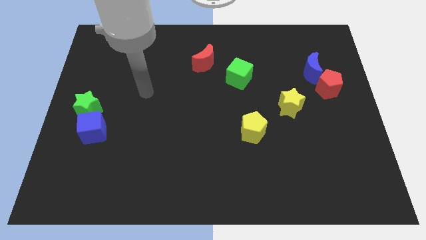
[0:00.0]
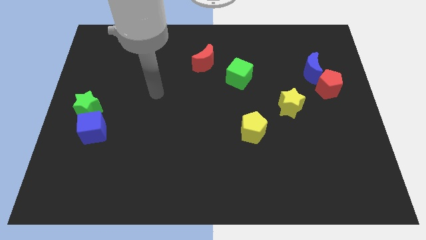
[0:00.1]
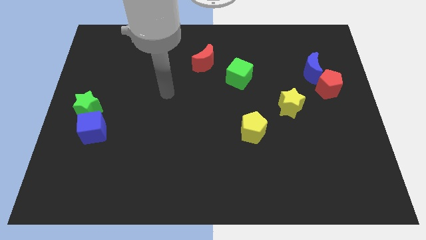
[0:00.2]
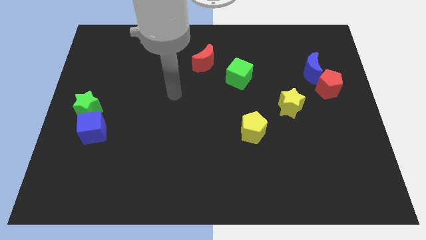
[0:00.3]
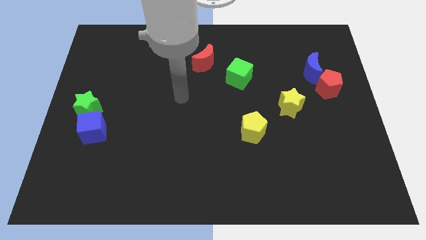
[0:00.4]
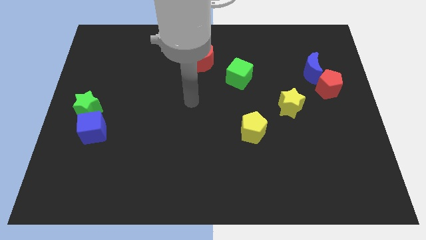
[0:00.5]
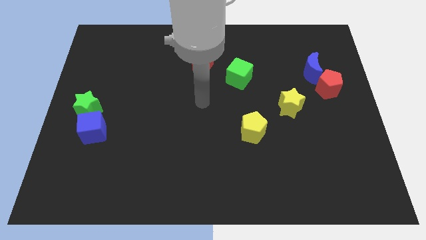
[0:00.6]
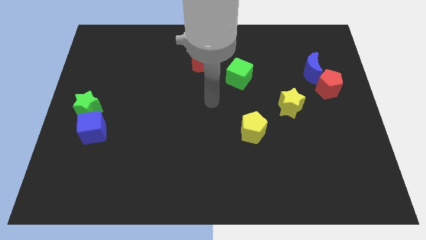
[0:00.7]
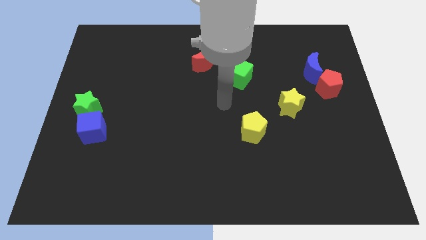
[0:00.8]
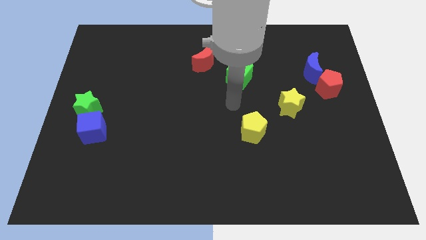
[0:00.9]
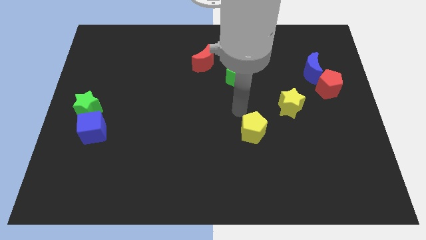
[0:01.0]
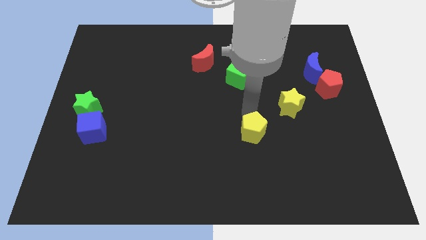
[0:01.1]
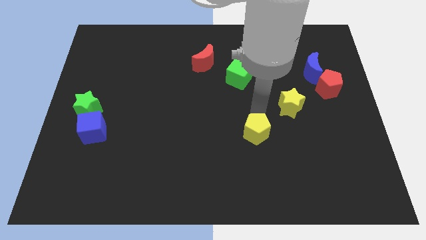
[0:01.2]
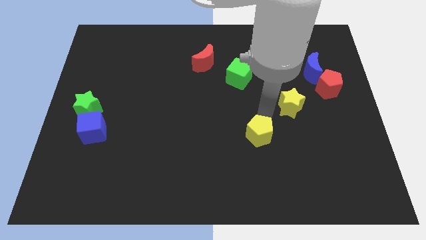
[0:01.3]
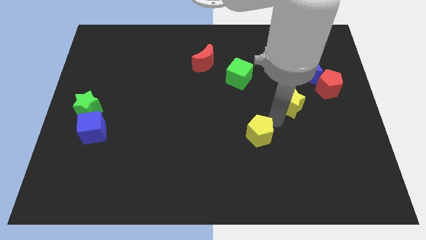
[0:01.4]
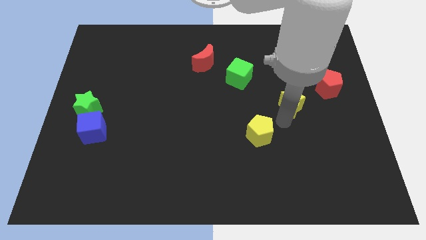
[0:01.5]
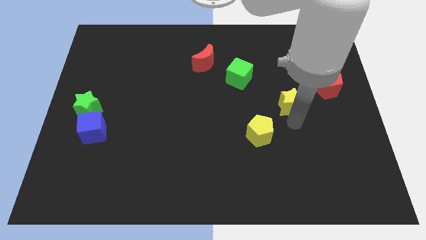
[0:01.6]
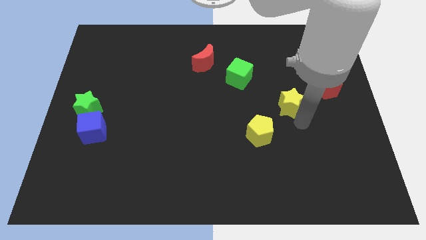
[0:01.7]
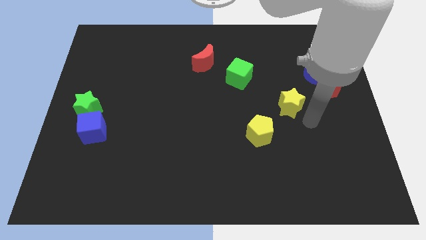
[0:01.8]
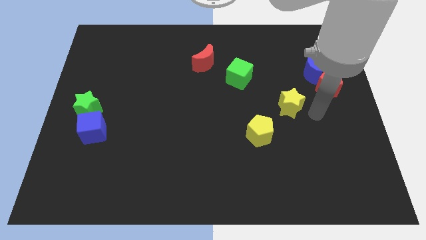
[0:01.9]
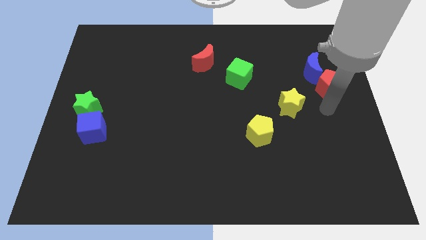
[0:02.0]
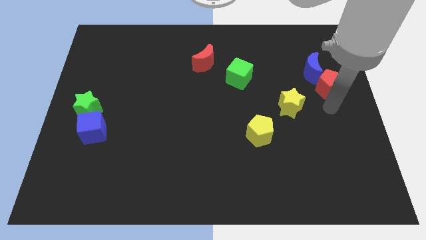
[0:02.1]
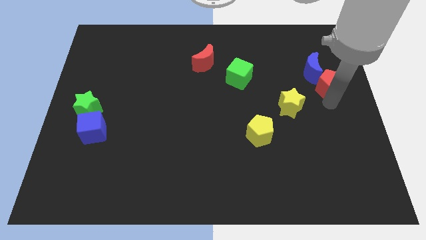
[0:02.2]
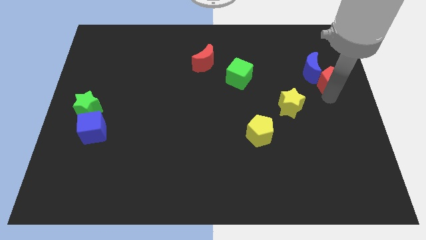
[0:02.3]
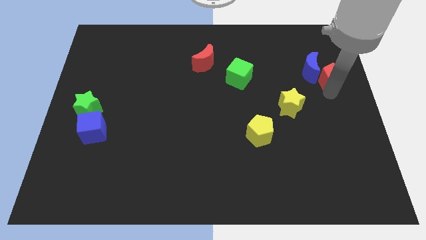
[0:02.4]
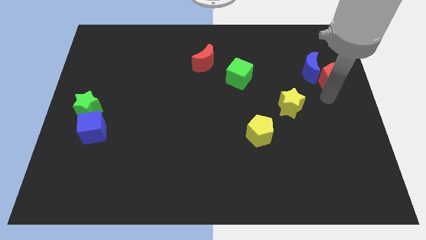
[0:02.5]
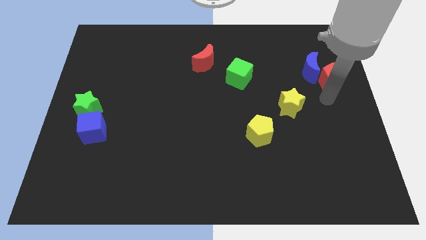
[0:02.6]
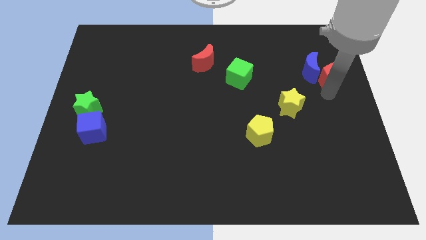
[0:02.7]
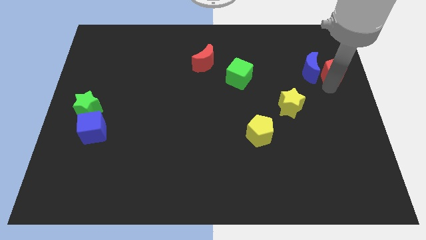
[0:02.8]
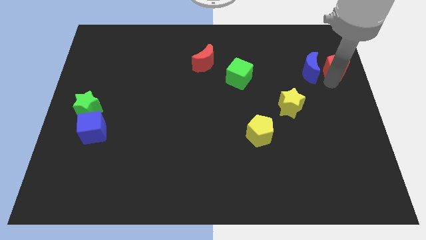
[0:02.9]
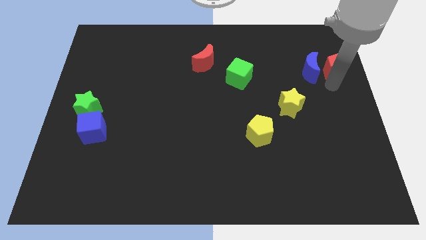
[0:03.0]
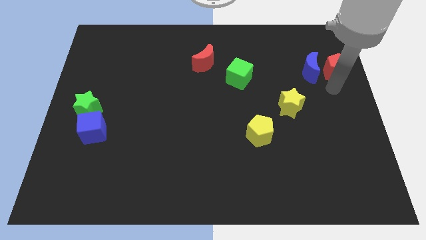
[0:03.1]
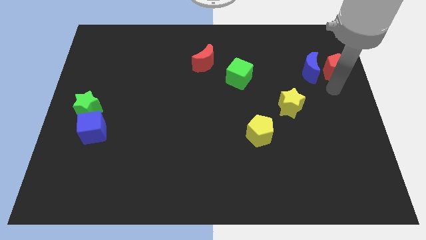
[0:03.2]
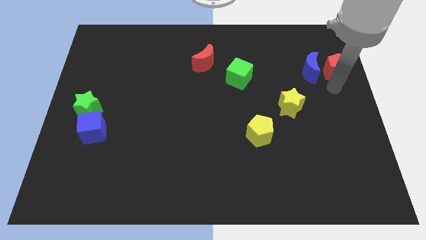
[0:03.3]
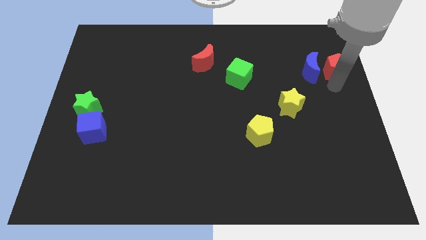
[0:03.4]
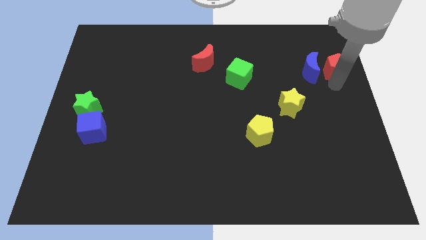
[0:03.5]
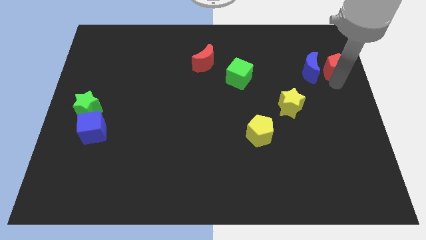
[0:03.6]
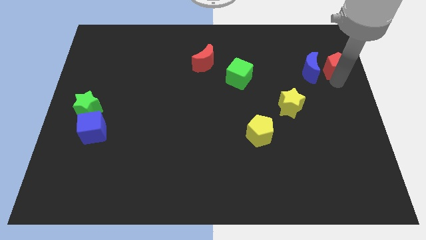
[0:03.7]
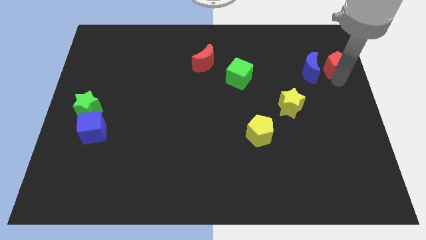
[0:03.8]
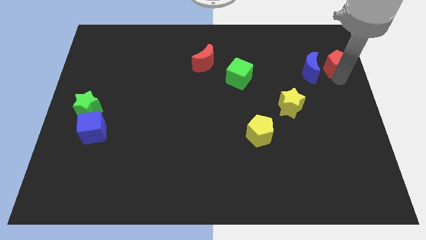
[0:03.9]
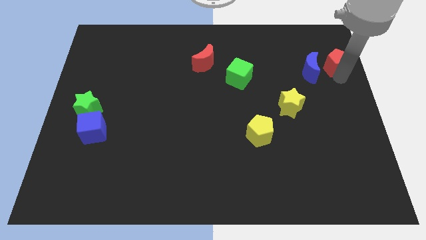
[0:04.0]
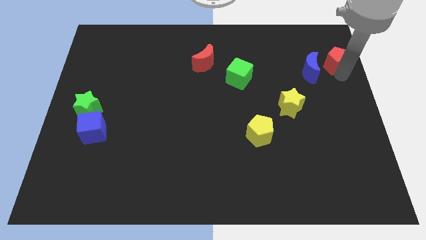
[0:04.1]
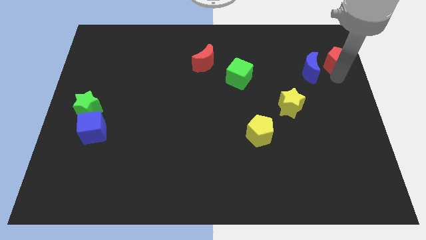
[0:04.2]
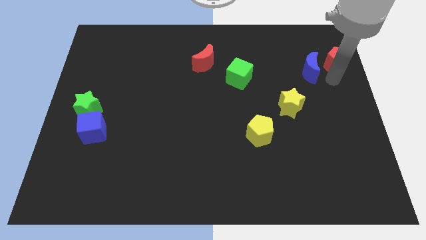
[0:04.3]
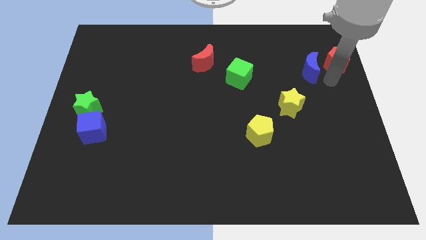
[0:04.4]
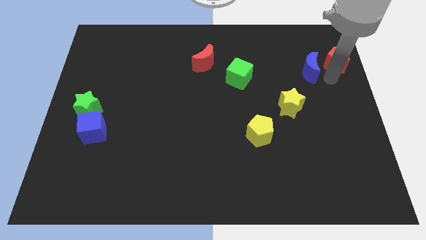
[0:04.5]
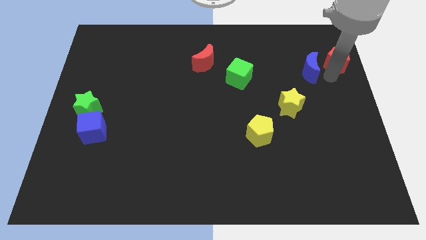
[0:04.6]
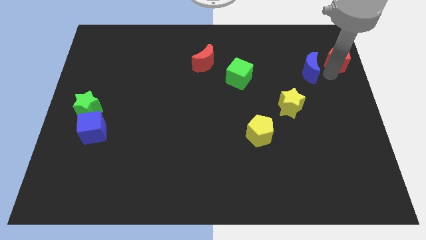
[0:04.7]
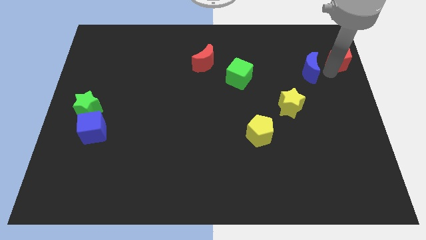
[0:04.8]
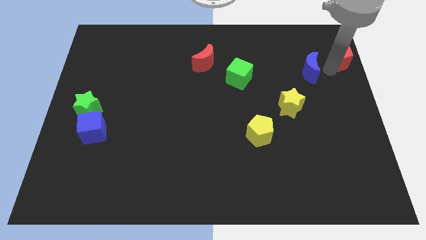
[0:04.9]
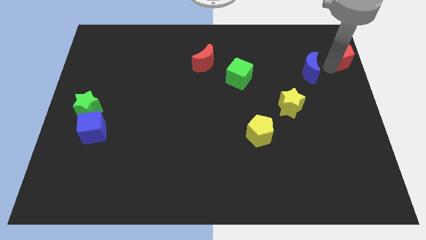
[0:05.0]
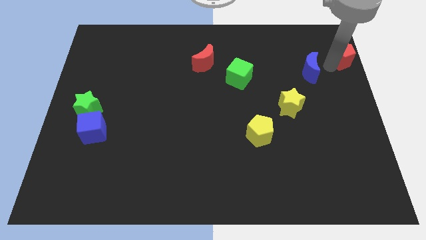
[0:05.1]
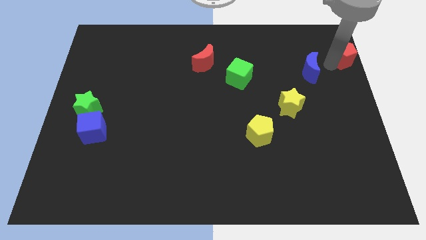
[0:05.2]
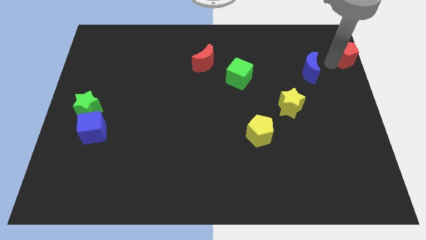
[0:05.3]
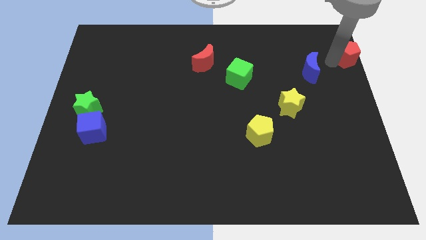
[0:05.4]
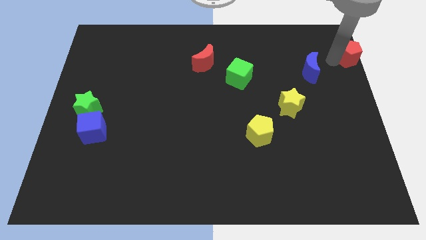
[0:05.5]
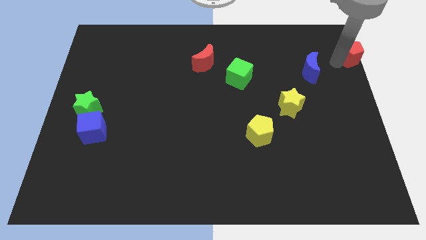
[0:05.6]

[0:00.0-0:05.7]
slide the red pentagon to the upper right corner

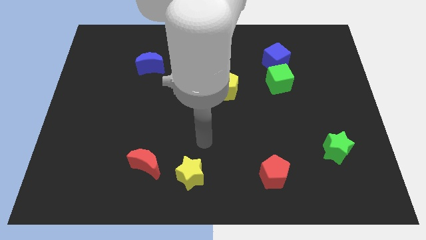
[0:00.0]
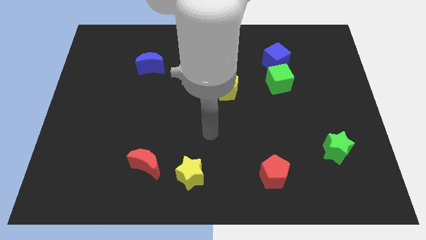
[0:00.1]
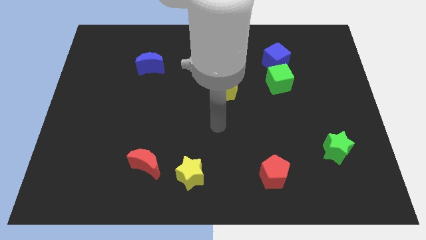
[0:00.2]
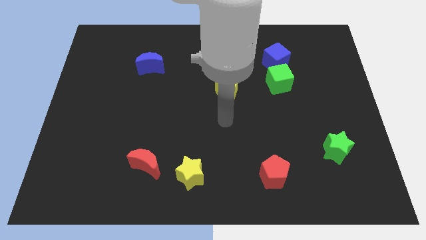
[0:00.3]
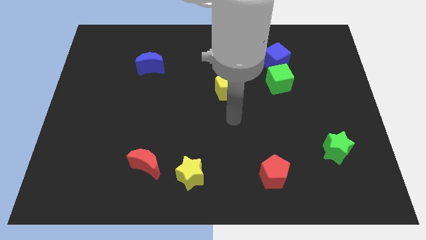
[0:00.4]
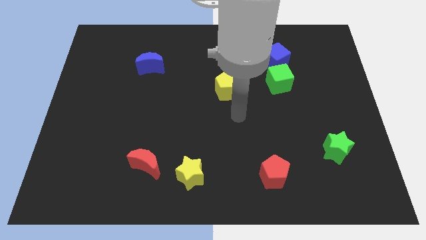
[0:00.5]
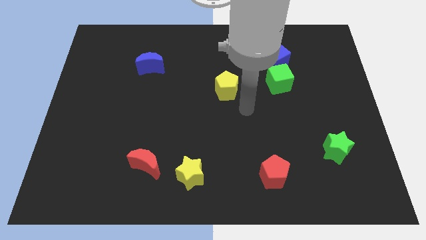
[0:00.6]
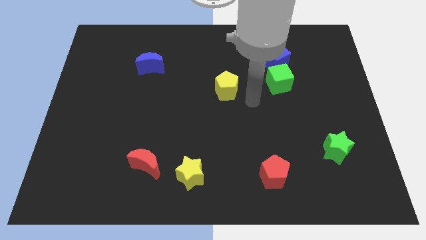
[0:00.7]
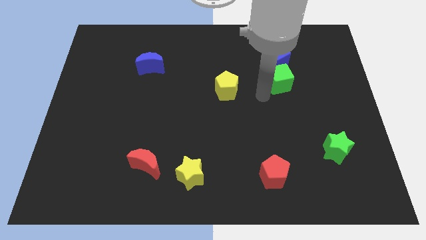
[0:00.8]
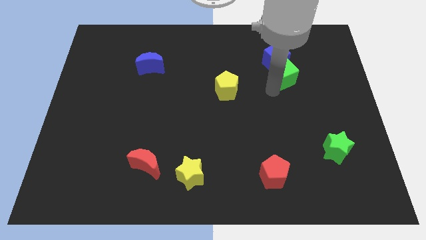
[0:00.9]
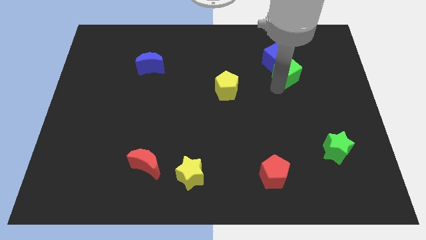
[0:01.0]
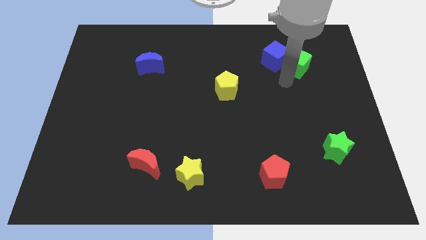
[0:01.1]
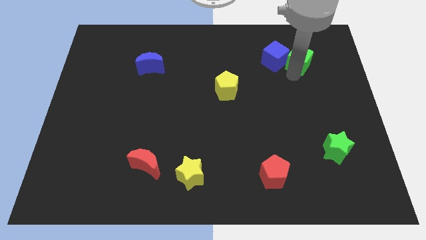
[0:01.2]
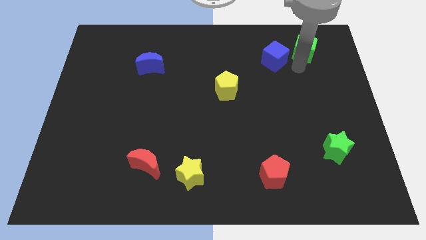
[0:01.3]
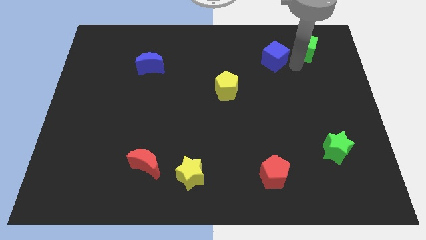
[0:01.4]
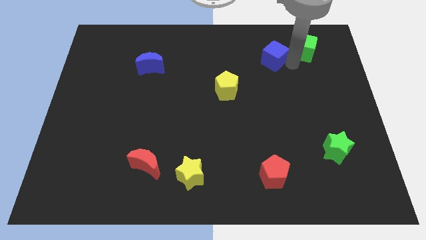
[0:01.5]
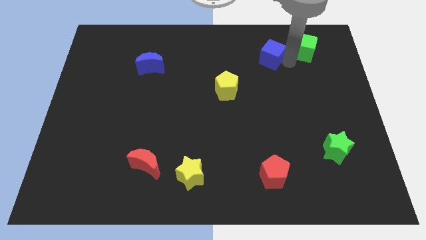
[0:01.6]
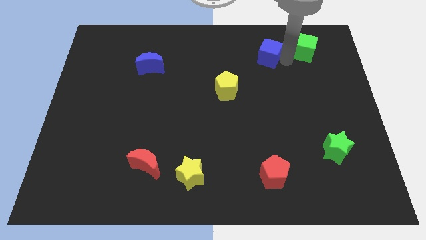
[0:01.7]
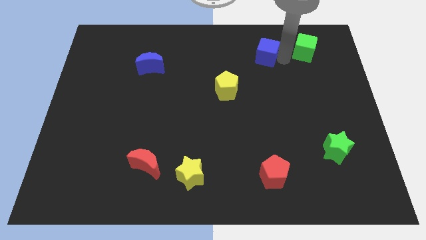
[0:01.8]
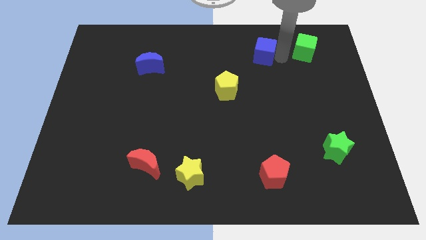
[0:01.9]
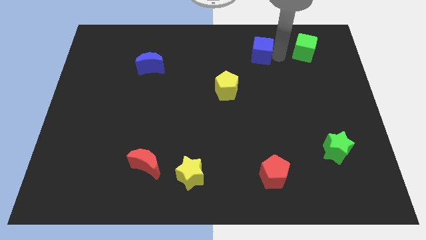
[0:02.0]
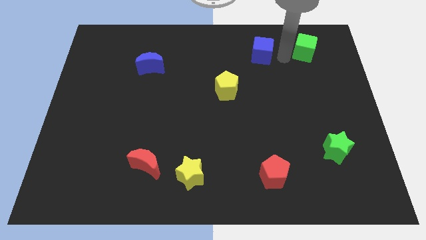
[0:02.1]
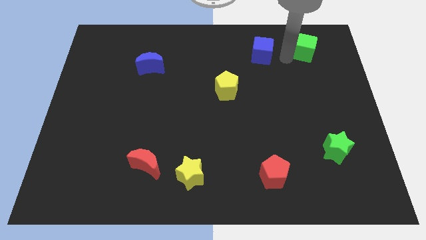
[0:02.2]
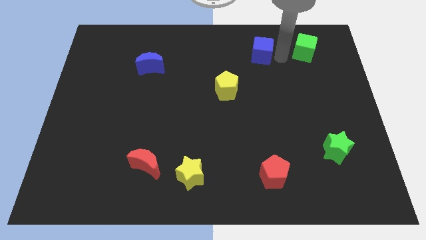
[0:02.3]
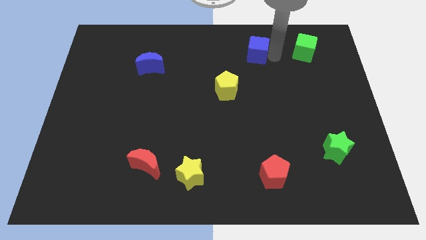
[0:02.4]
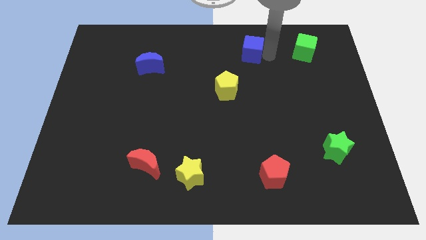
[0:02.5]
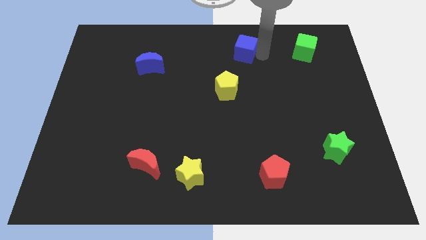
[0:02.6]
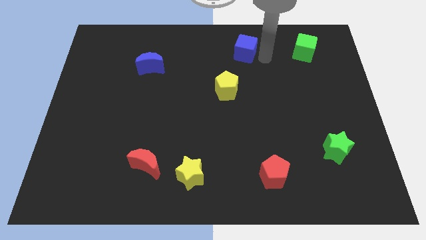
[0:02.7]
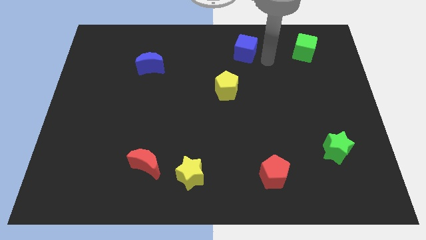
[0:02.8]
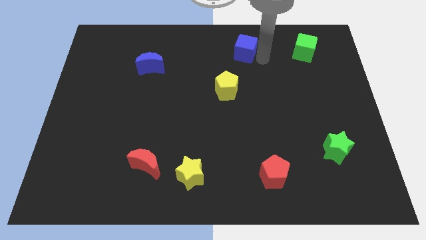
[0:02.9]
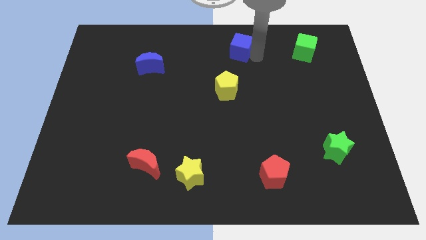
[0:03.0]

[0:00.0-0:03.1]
slide the blue cube to the top
